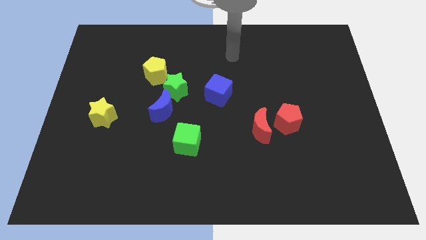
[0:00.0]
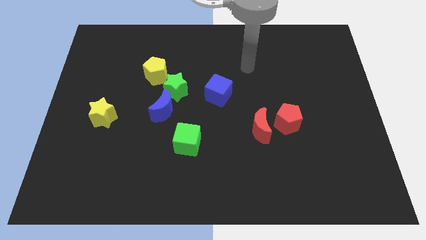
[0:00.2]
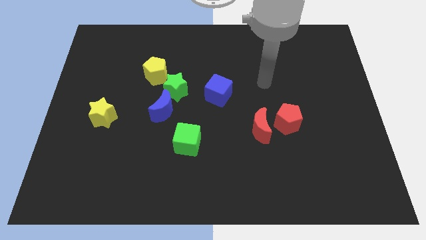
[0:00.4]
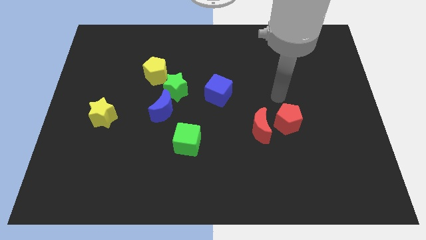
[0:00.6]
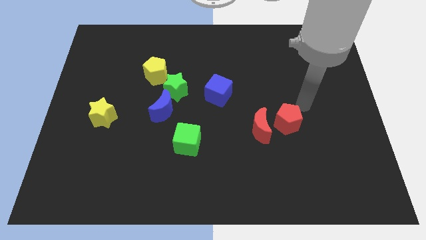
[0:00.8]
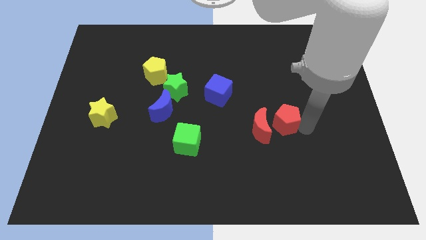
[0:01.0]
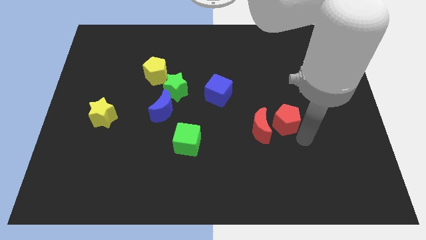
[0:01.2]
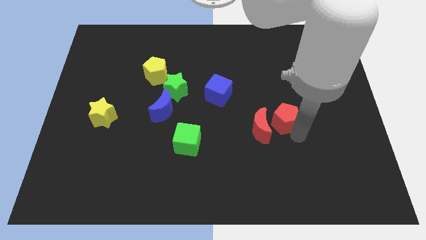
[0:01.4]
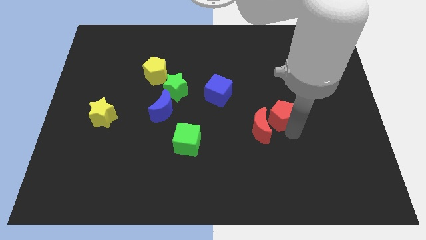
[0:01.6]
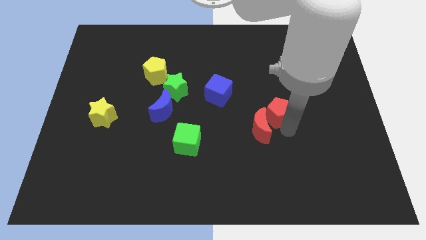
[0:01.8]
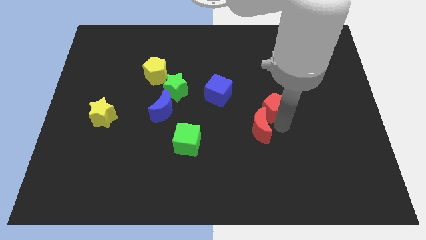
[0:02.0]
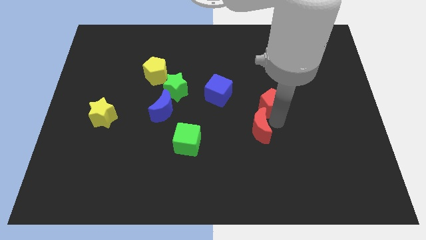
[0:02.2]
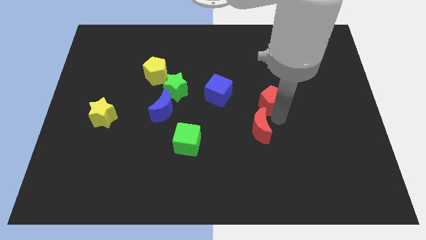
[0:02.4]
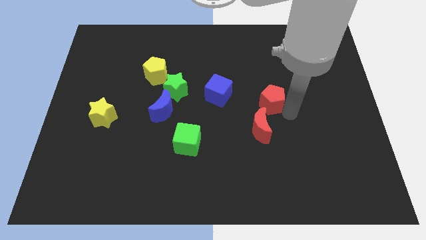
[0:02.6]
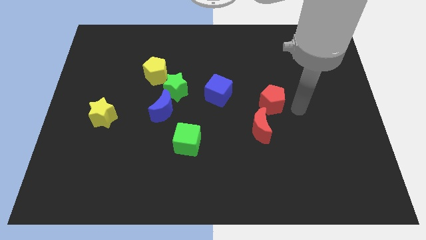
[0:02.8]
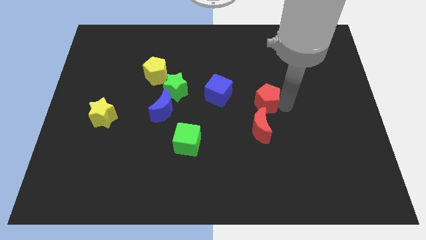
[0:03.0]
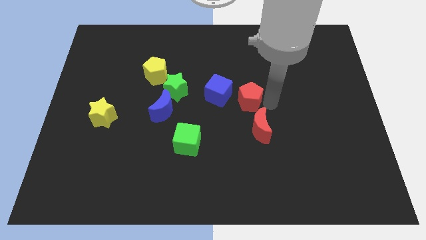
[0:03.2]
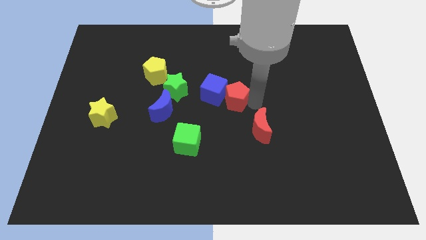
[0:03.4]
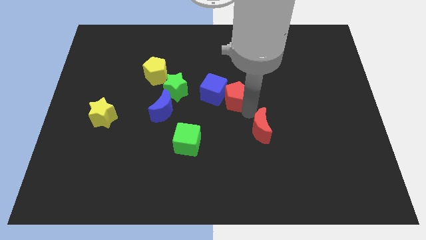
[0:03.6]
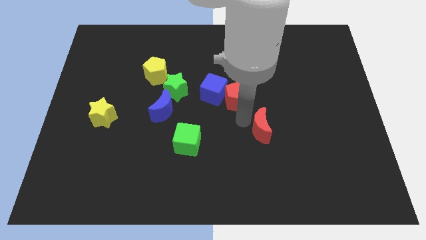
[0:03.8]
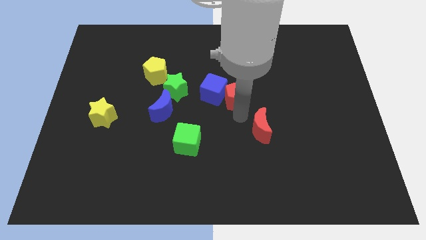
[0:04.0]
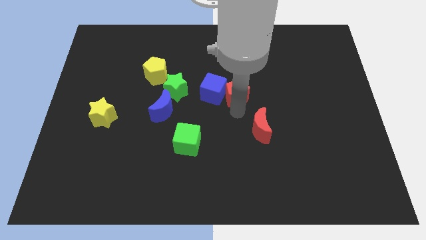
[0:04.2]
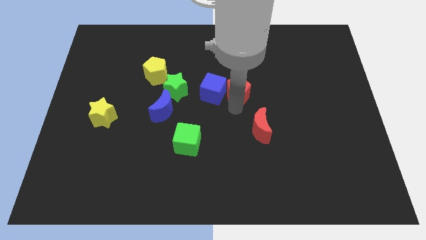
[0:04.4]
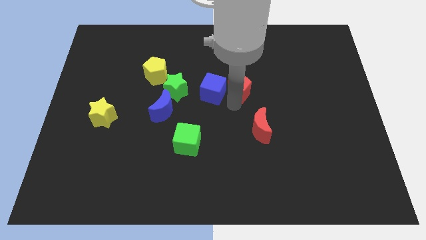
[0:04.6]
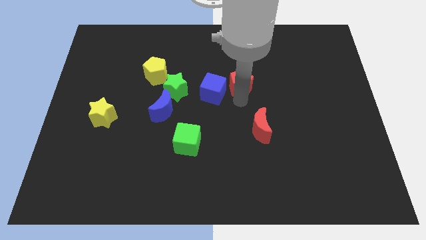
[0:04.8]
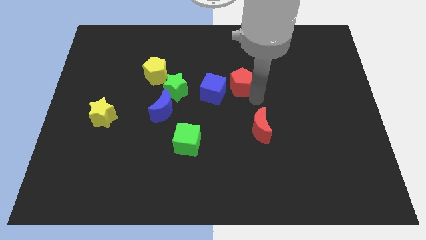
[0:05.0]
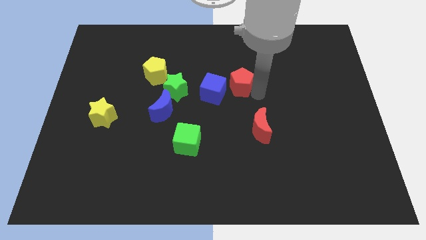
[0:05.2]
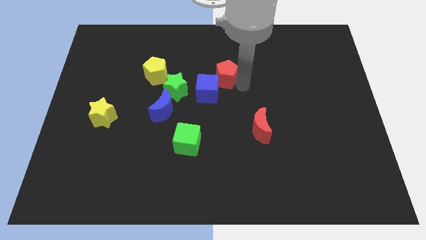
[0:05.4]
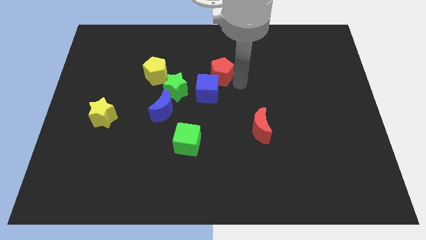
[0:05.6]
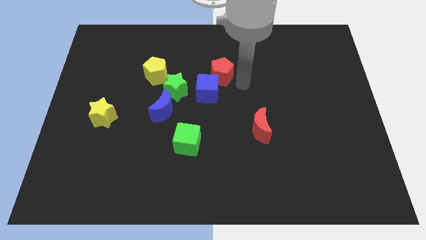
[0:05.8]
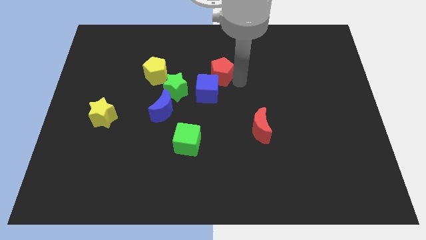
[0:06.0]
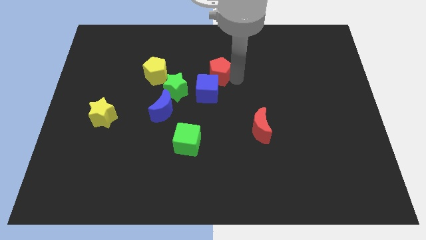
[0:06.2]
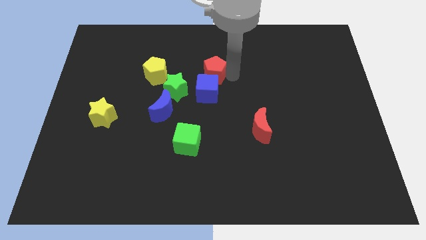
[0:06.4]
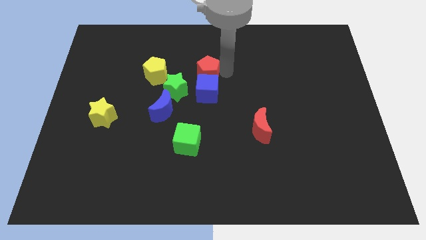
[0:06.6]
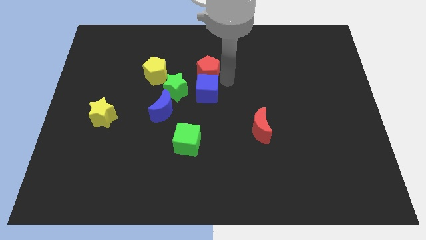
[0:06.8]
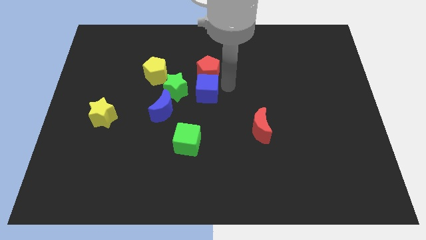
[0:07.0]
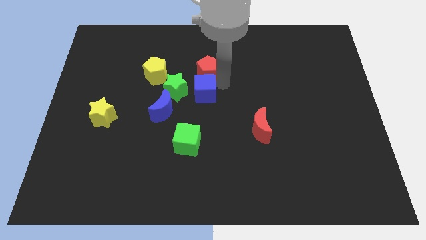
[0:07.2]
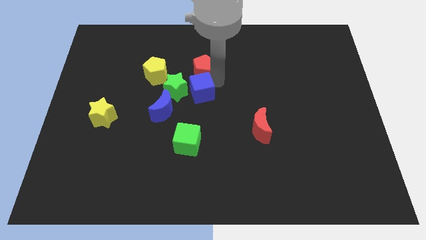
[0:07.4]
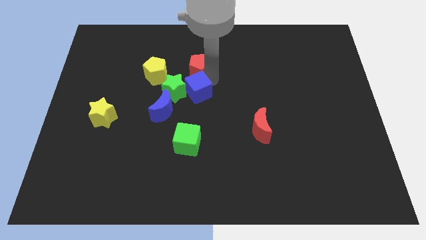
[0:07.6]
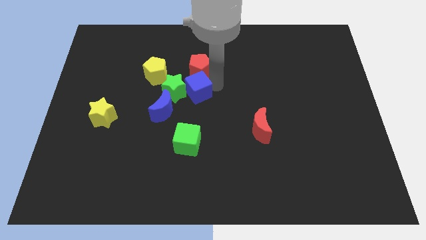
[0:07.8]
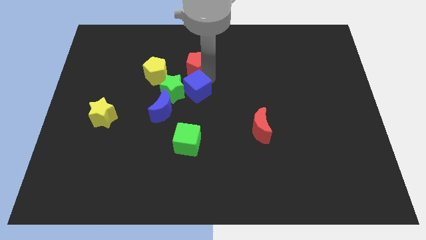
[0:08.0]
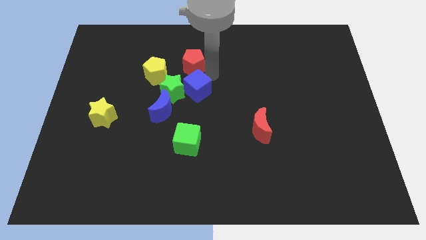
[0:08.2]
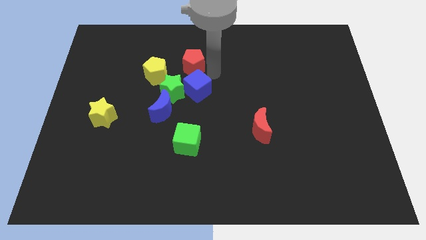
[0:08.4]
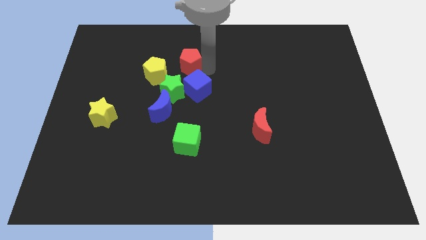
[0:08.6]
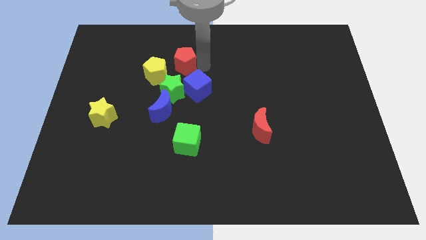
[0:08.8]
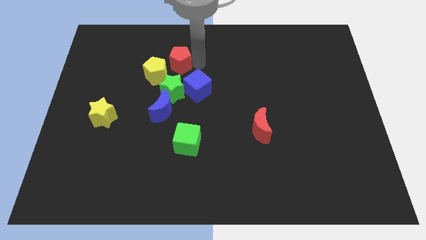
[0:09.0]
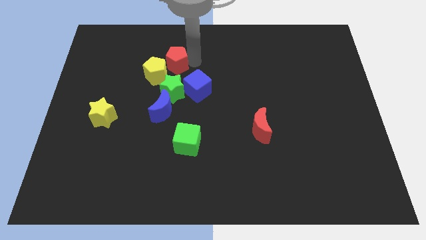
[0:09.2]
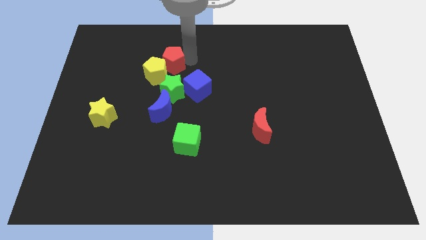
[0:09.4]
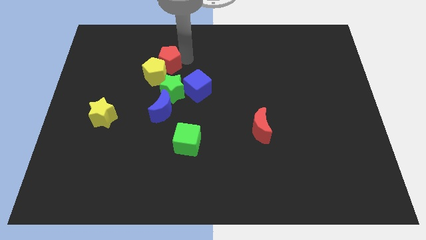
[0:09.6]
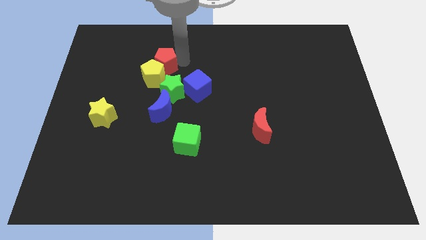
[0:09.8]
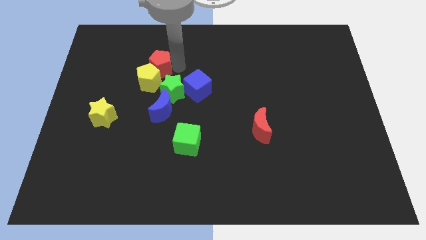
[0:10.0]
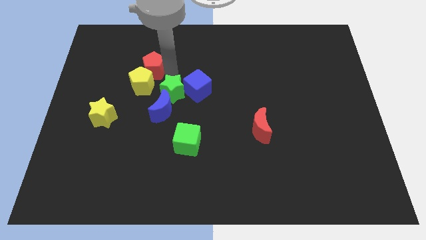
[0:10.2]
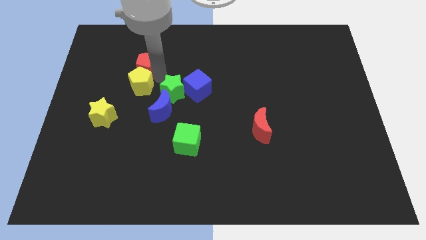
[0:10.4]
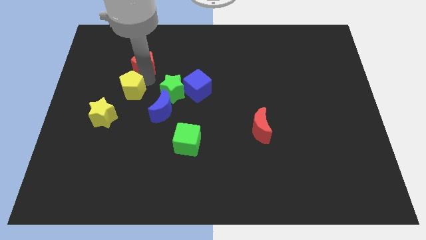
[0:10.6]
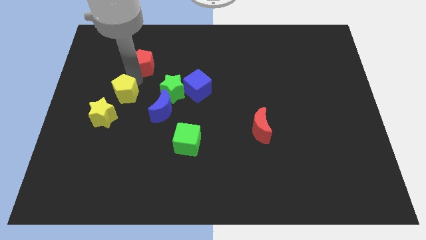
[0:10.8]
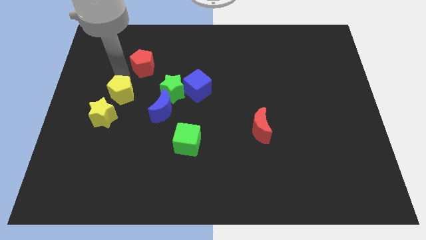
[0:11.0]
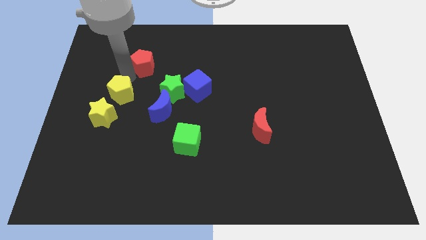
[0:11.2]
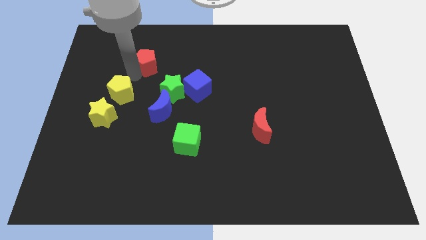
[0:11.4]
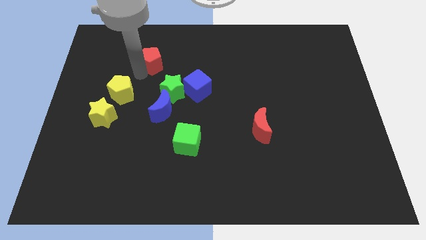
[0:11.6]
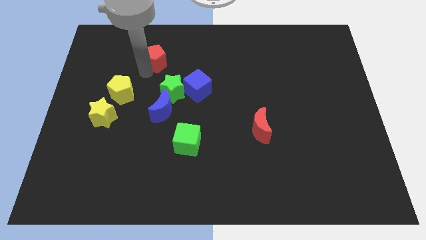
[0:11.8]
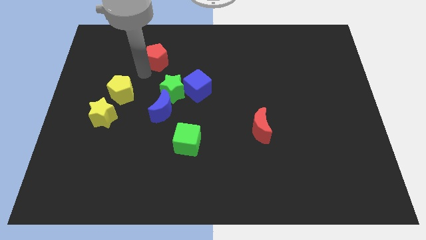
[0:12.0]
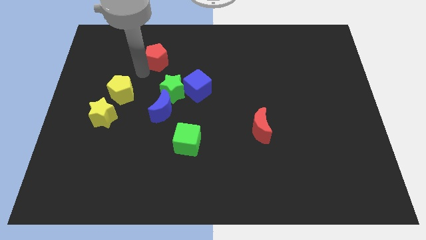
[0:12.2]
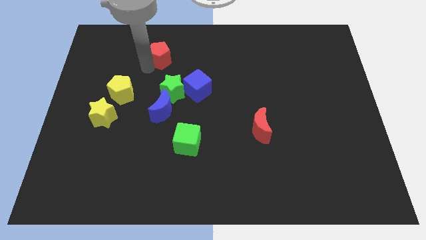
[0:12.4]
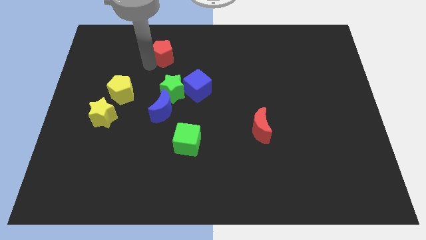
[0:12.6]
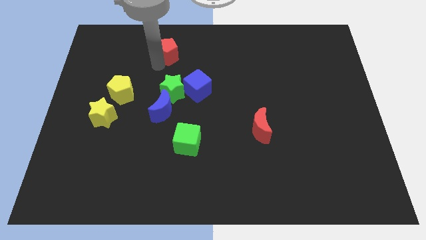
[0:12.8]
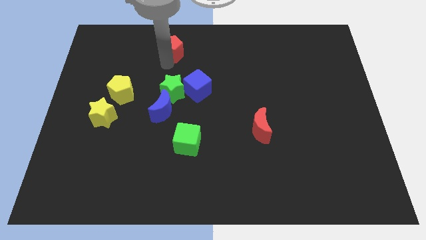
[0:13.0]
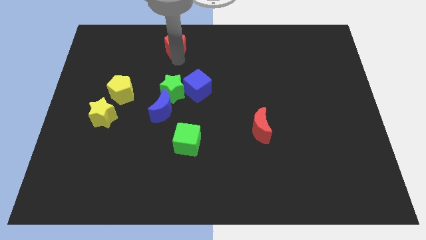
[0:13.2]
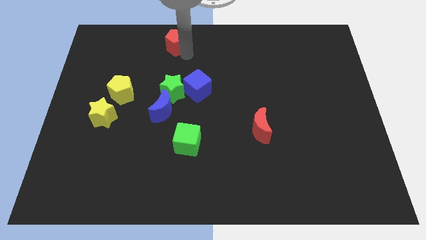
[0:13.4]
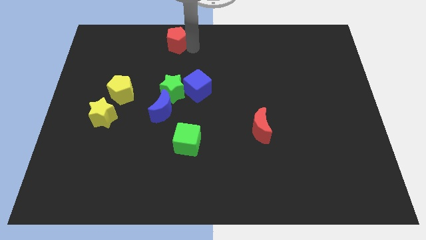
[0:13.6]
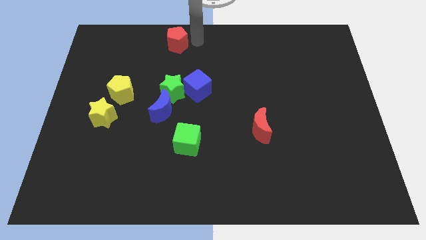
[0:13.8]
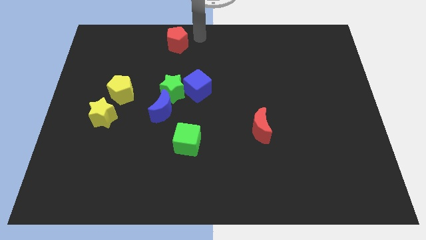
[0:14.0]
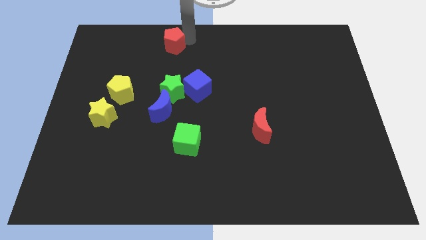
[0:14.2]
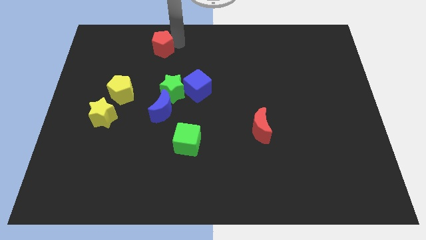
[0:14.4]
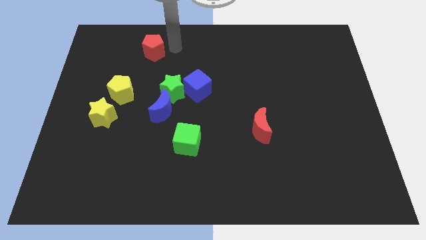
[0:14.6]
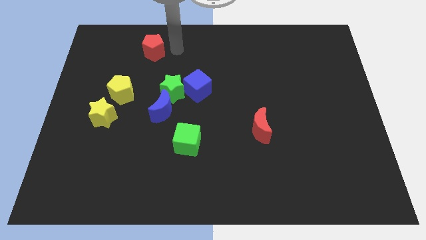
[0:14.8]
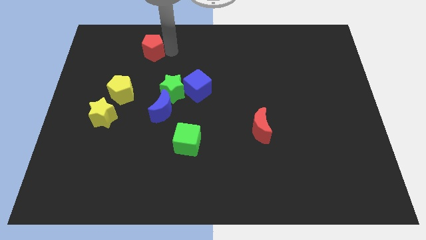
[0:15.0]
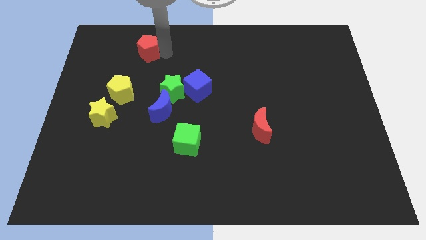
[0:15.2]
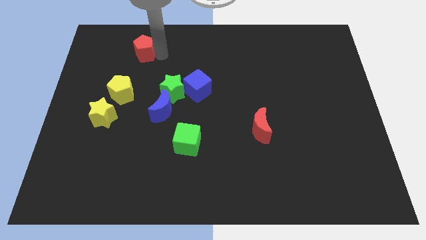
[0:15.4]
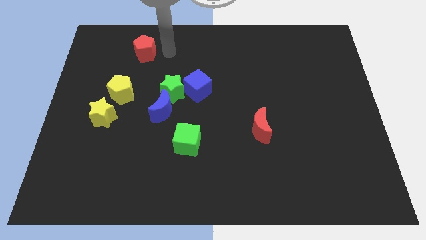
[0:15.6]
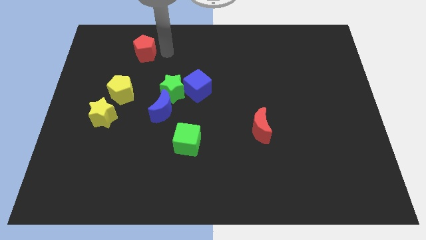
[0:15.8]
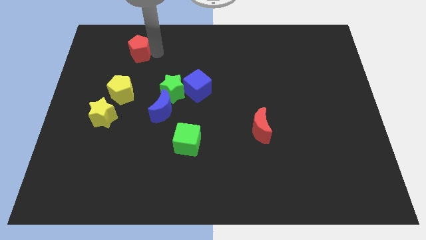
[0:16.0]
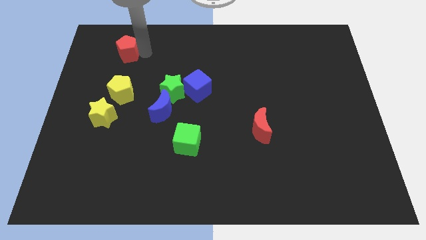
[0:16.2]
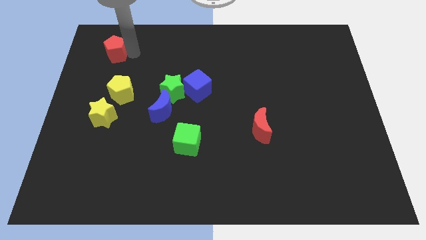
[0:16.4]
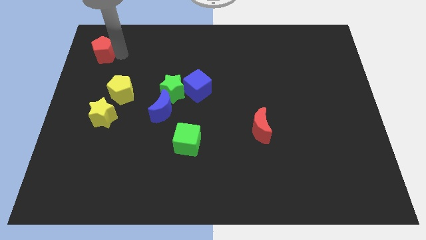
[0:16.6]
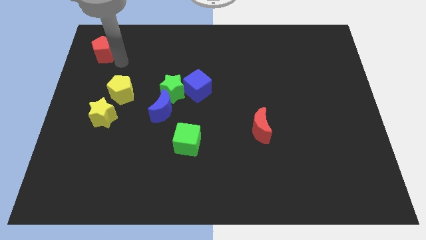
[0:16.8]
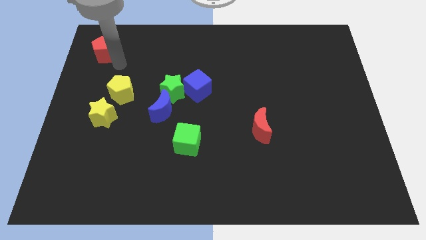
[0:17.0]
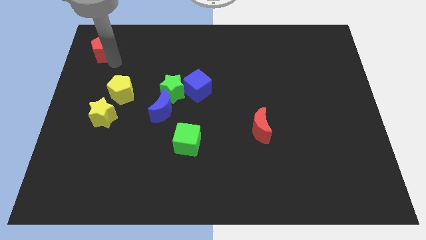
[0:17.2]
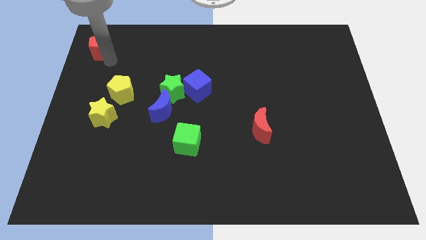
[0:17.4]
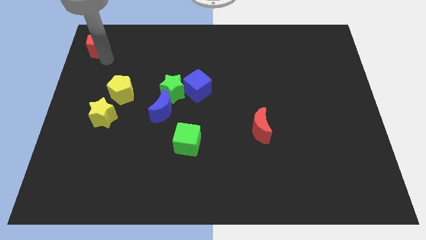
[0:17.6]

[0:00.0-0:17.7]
put the red pentagon to the top left corner
